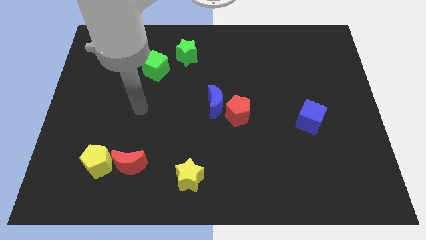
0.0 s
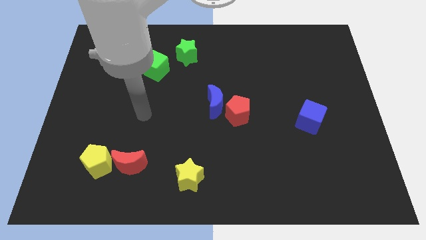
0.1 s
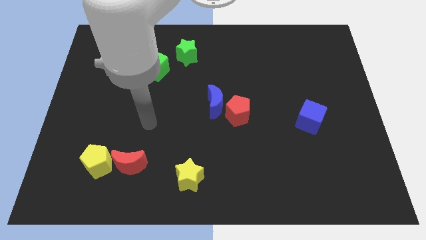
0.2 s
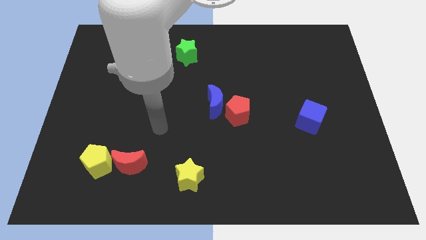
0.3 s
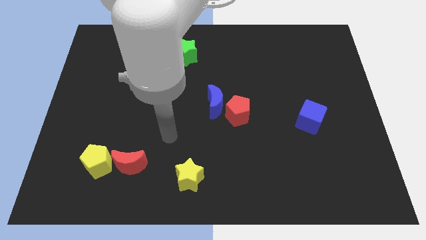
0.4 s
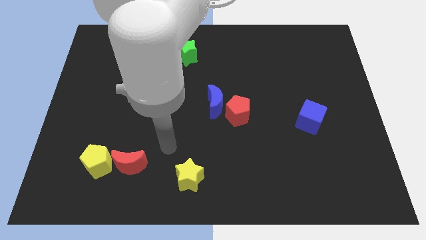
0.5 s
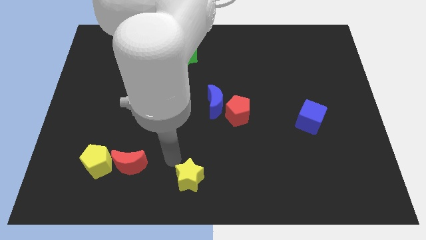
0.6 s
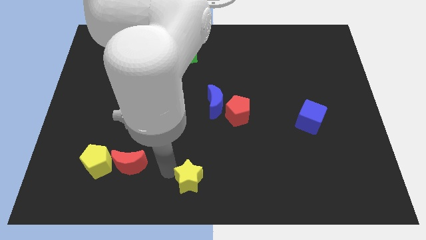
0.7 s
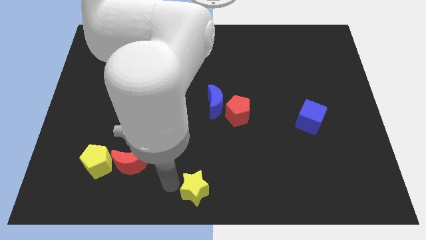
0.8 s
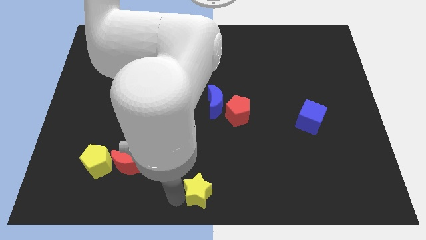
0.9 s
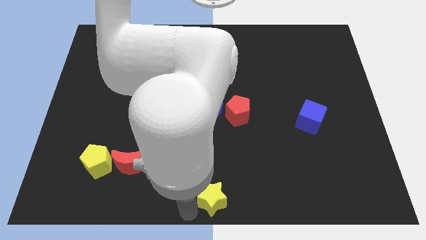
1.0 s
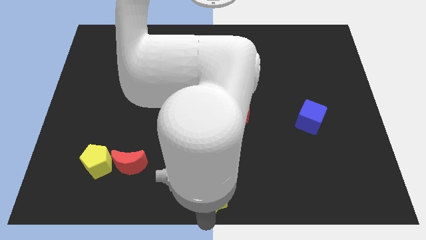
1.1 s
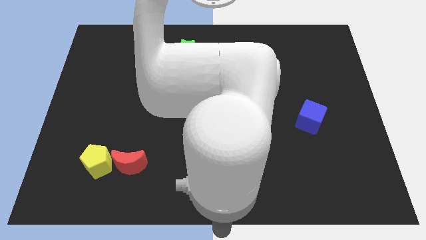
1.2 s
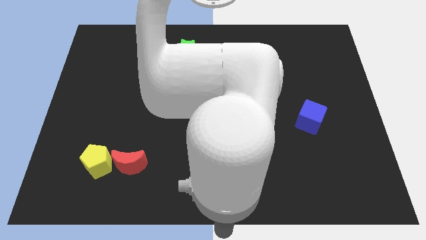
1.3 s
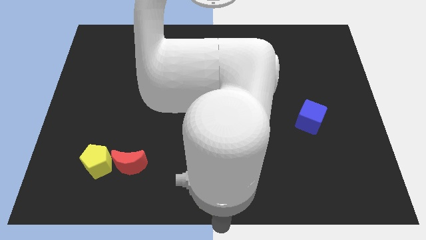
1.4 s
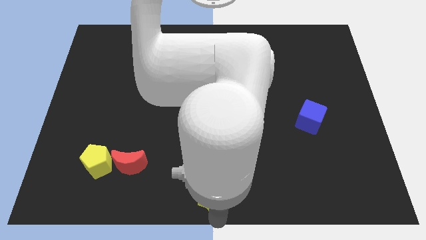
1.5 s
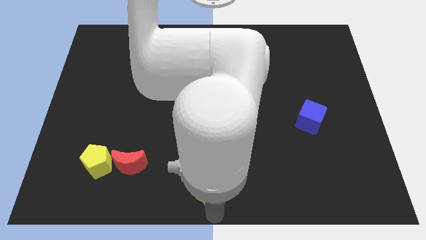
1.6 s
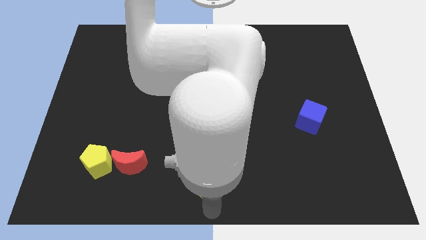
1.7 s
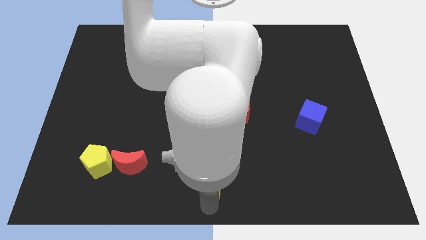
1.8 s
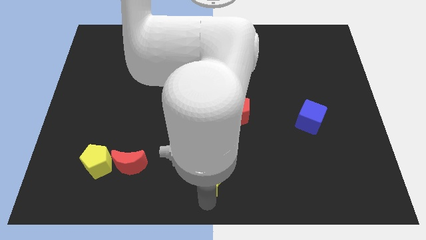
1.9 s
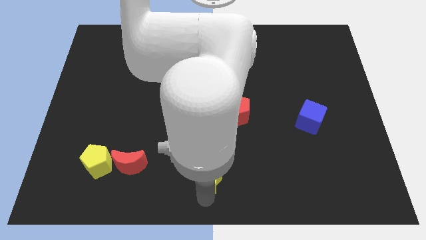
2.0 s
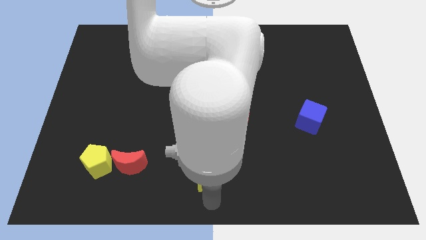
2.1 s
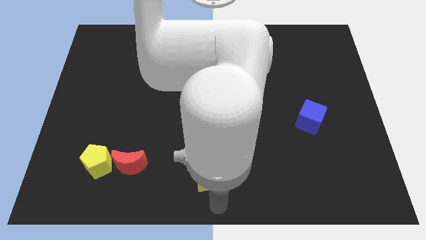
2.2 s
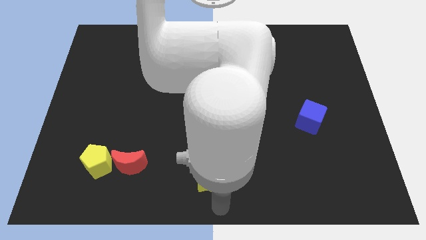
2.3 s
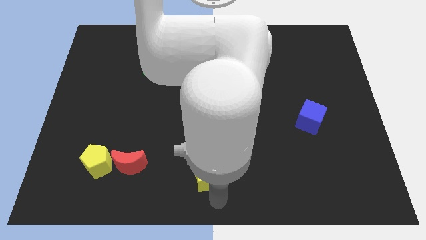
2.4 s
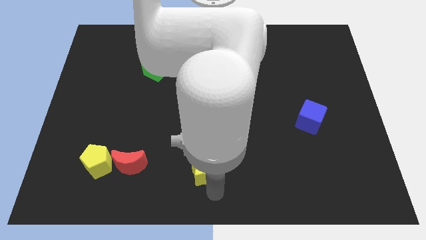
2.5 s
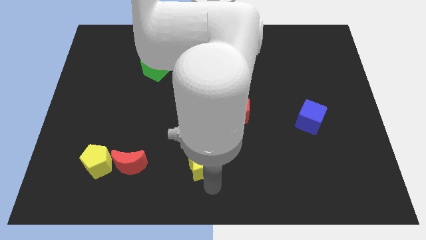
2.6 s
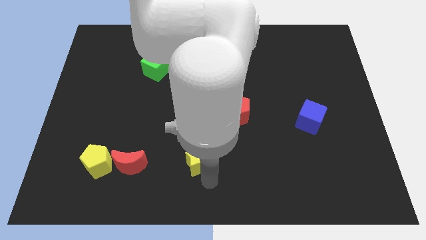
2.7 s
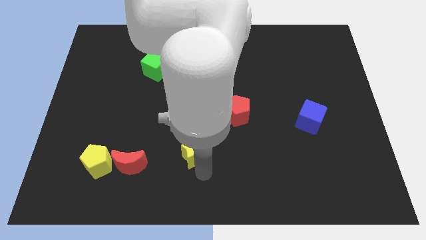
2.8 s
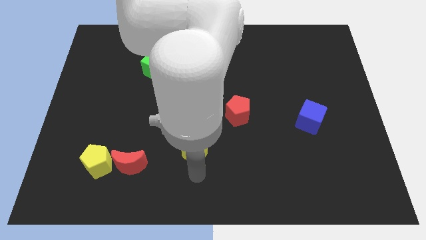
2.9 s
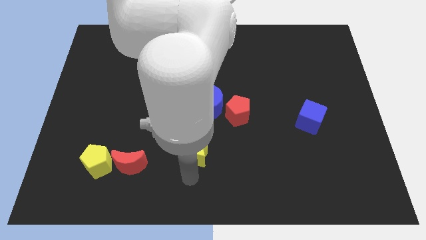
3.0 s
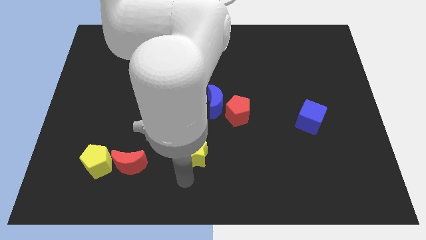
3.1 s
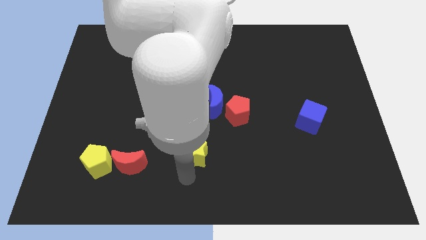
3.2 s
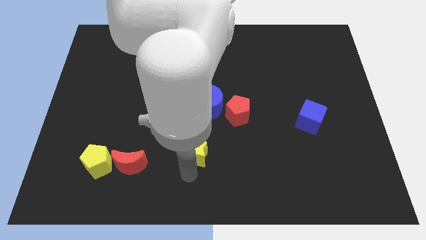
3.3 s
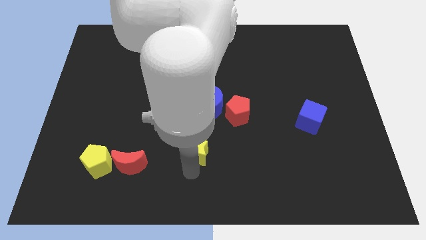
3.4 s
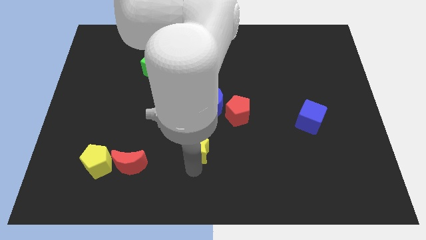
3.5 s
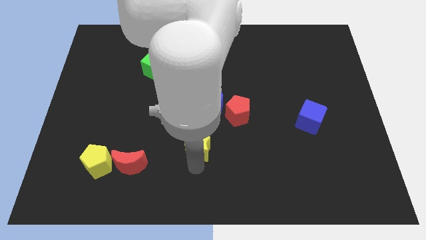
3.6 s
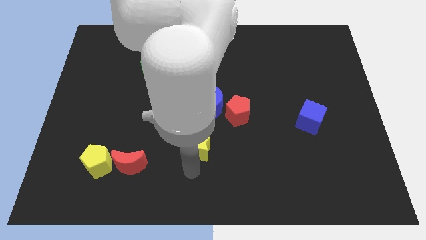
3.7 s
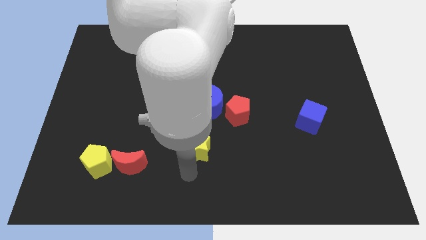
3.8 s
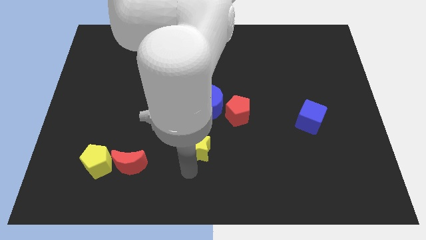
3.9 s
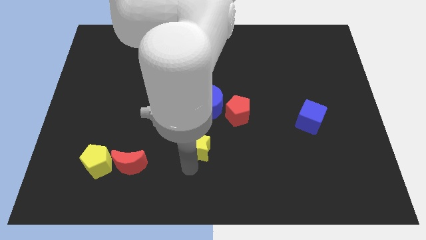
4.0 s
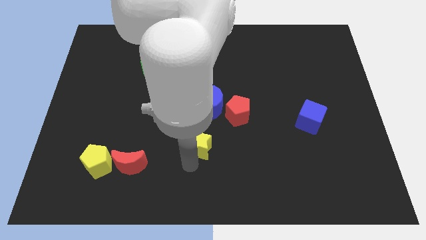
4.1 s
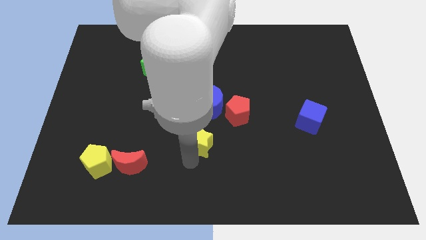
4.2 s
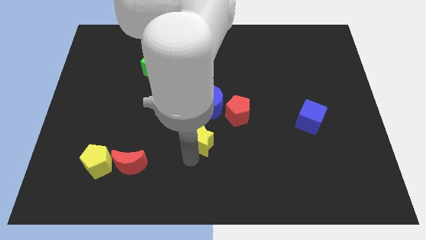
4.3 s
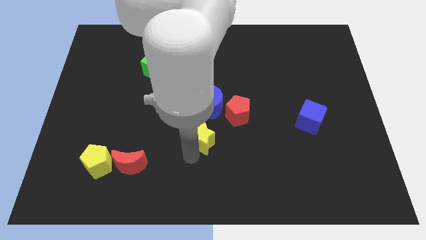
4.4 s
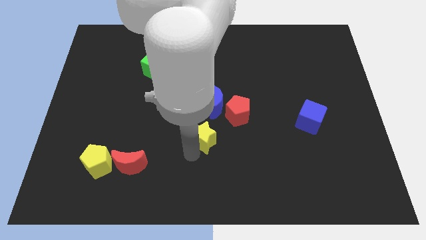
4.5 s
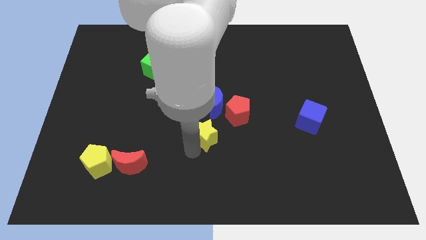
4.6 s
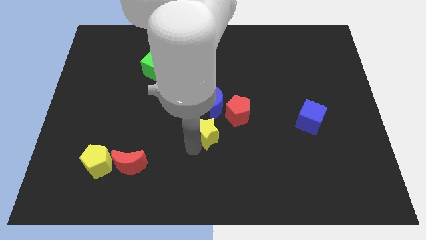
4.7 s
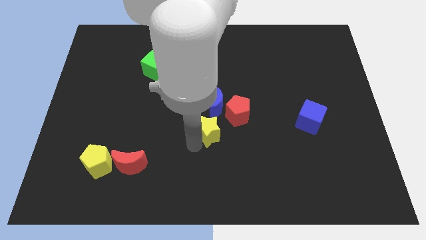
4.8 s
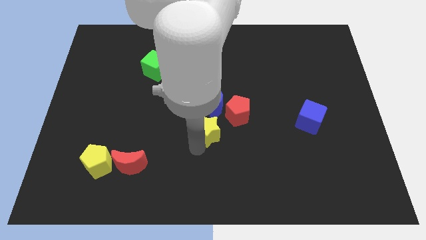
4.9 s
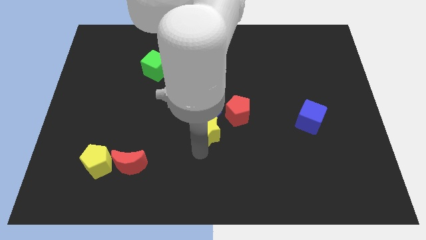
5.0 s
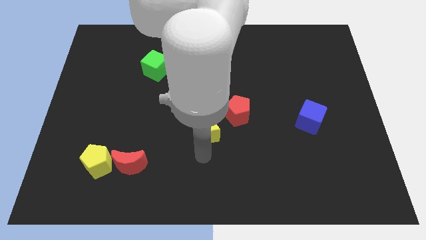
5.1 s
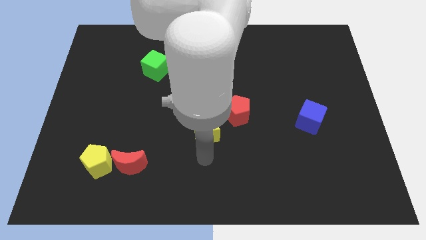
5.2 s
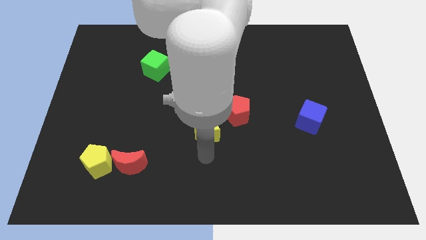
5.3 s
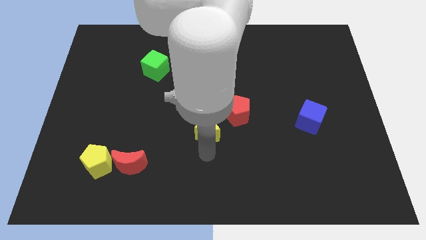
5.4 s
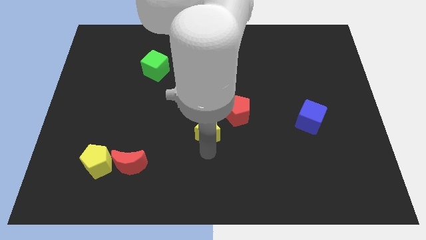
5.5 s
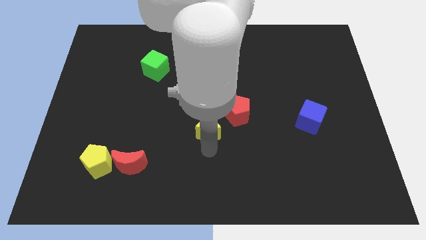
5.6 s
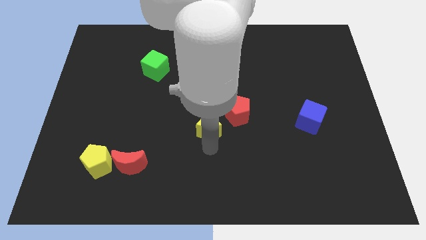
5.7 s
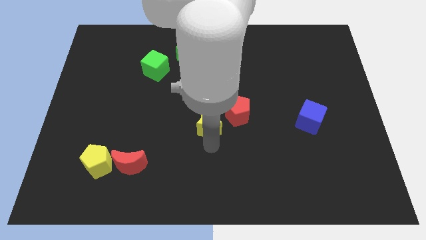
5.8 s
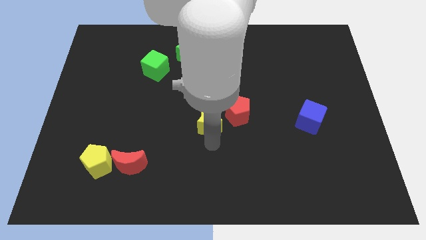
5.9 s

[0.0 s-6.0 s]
slide the yellow star next to the blue moon

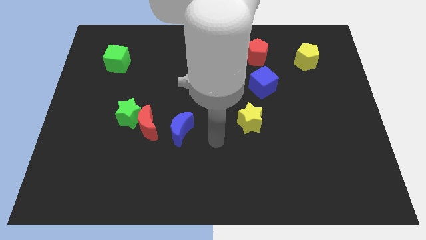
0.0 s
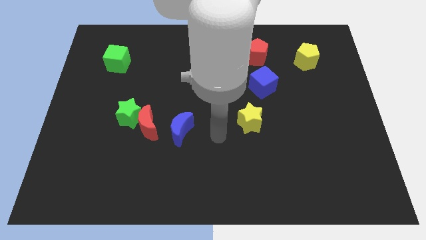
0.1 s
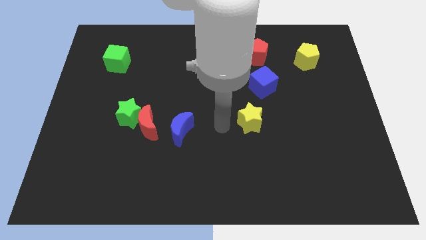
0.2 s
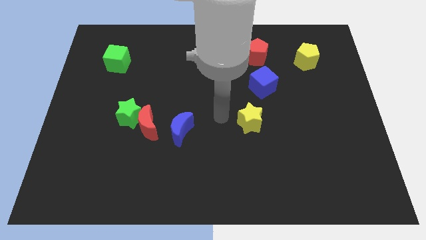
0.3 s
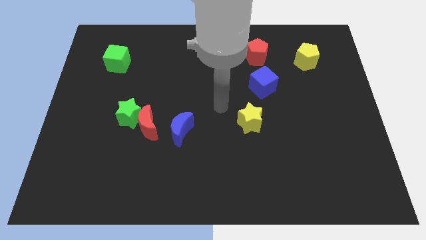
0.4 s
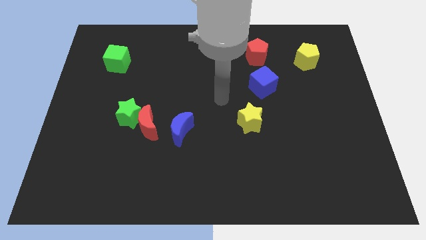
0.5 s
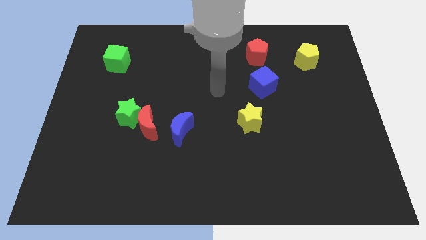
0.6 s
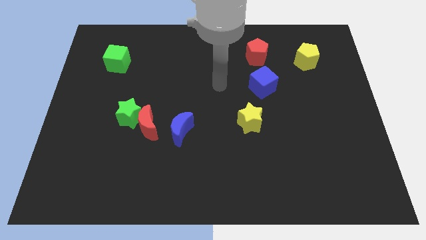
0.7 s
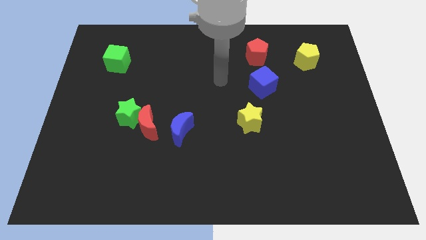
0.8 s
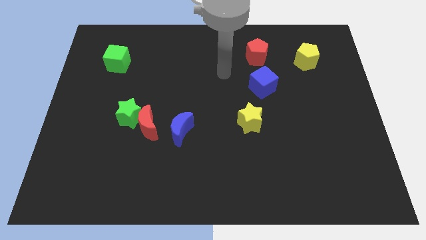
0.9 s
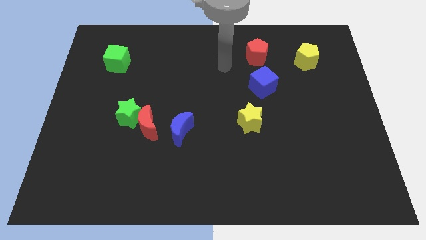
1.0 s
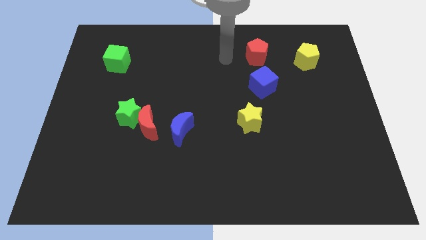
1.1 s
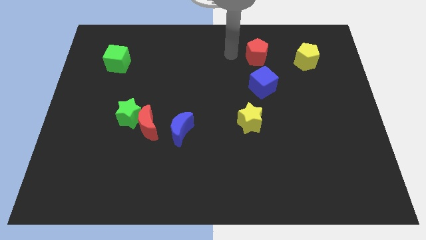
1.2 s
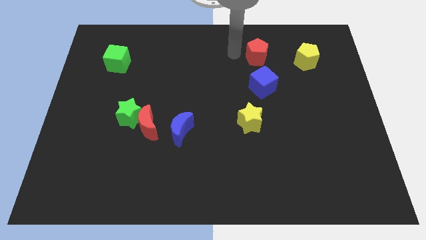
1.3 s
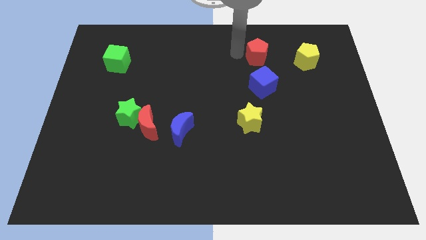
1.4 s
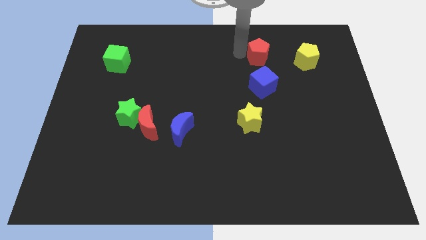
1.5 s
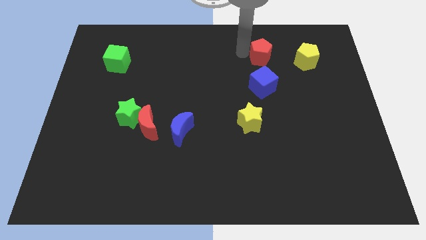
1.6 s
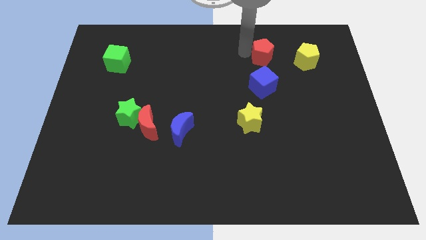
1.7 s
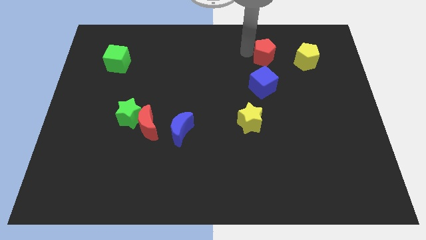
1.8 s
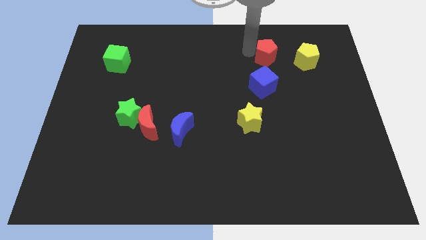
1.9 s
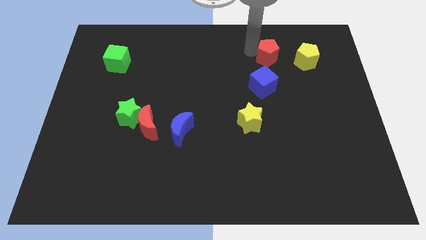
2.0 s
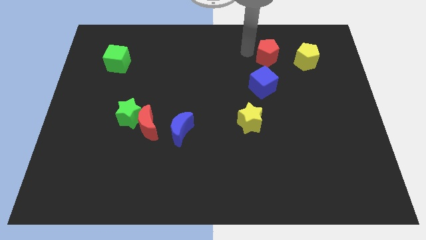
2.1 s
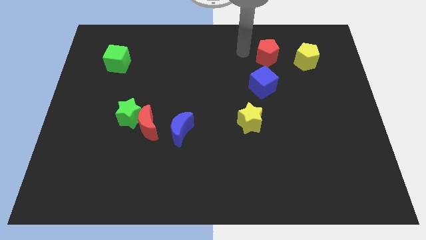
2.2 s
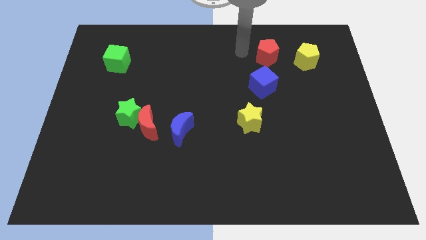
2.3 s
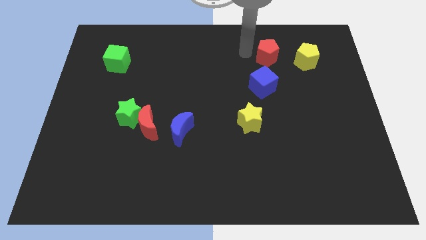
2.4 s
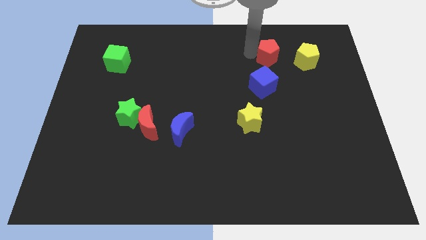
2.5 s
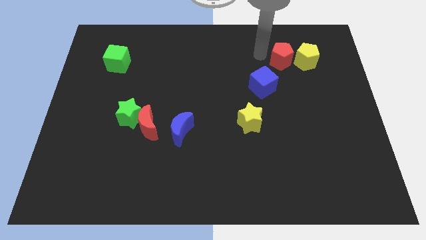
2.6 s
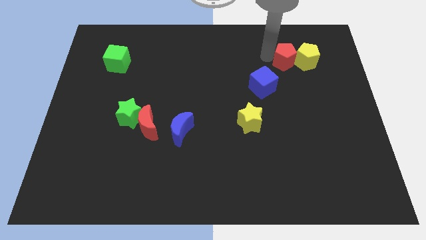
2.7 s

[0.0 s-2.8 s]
move the red pentagon towards the yellow pentagon
